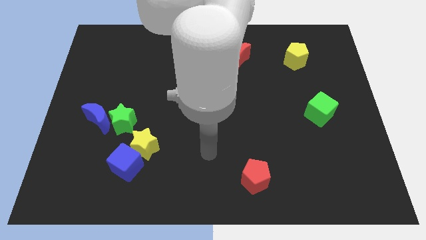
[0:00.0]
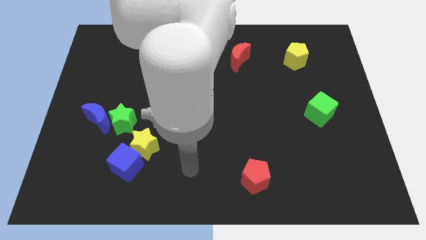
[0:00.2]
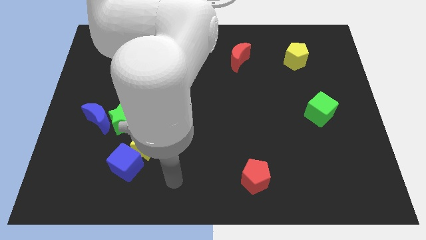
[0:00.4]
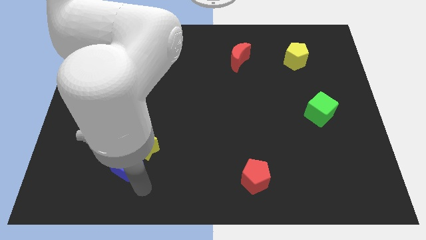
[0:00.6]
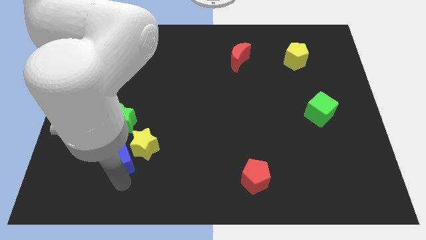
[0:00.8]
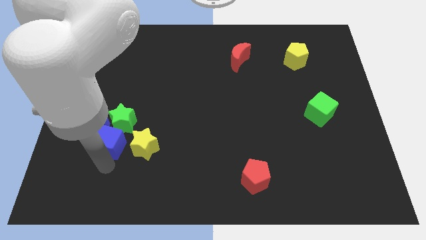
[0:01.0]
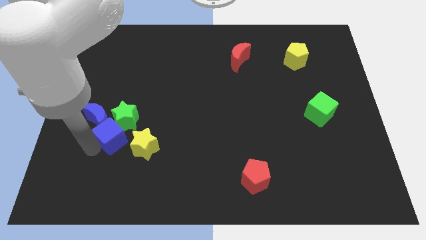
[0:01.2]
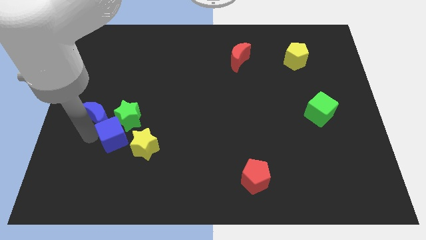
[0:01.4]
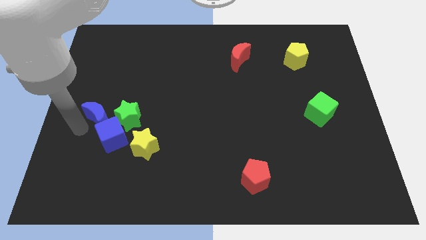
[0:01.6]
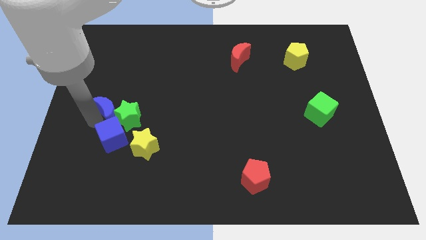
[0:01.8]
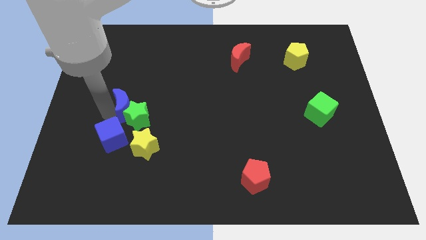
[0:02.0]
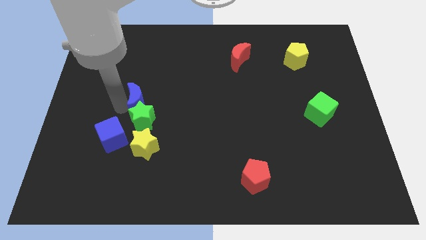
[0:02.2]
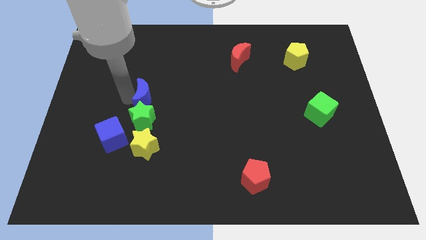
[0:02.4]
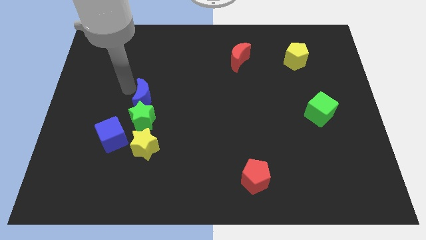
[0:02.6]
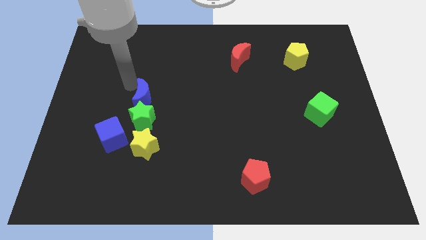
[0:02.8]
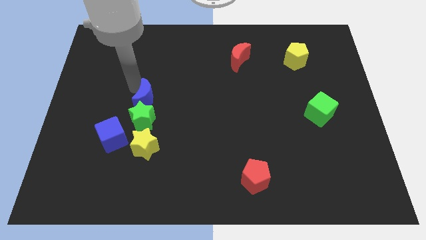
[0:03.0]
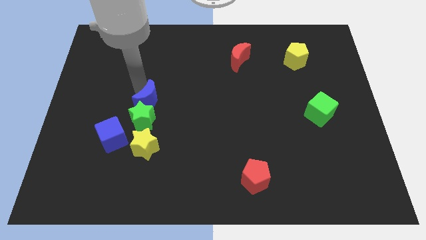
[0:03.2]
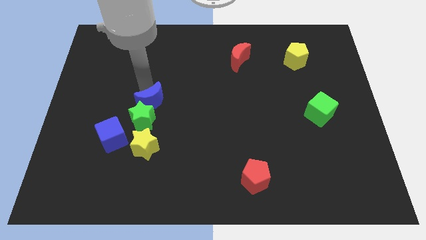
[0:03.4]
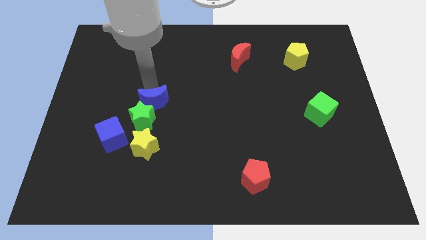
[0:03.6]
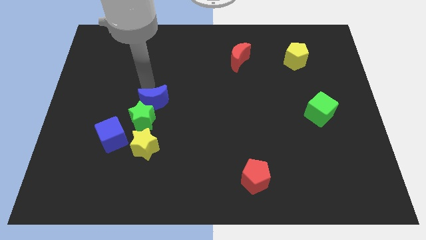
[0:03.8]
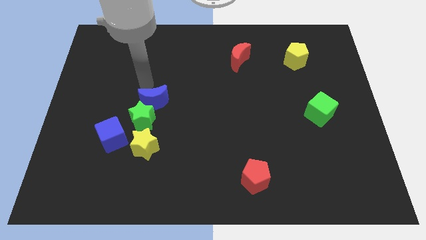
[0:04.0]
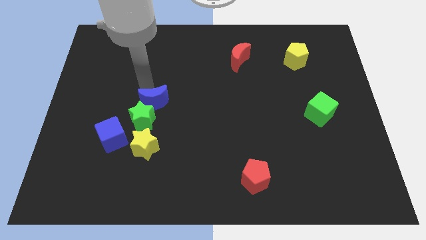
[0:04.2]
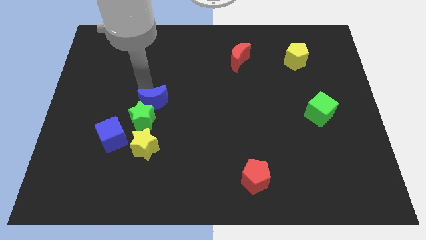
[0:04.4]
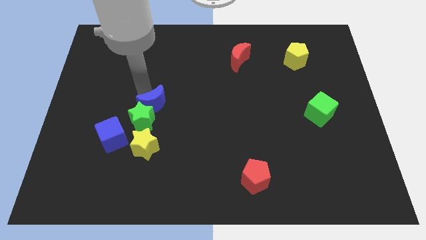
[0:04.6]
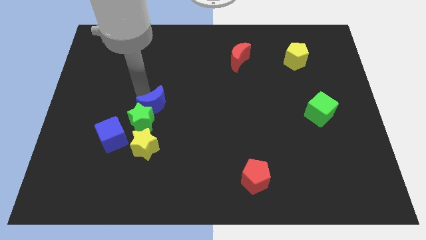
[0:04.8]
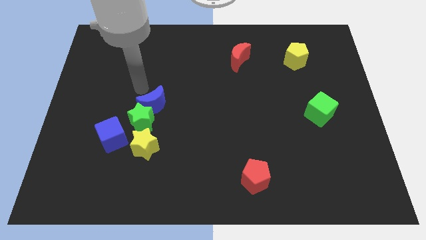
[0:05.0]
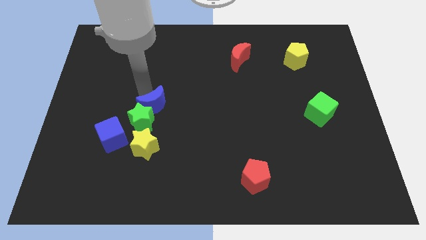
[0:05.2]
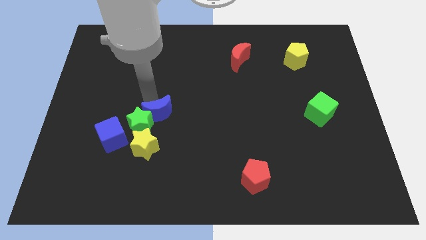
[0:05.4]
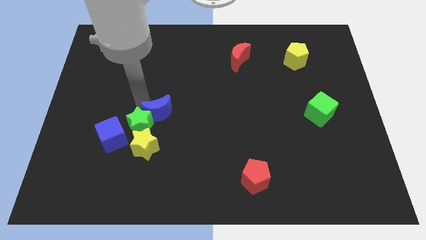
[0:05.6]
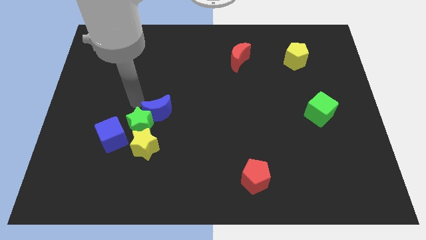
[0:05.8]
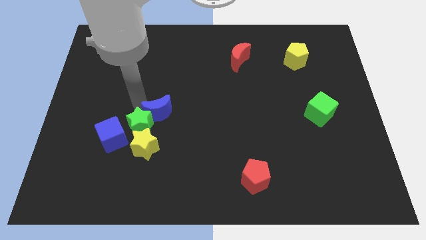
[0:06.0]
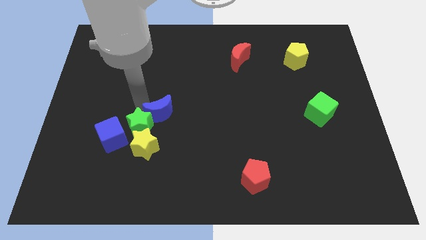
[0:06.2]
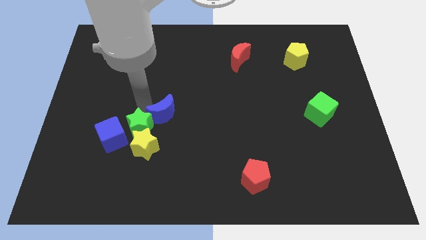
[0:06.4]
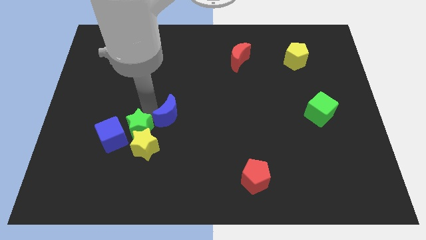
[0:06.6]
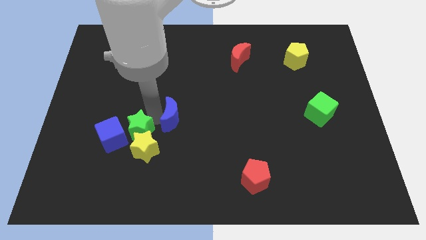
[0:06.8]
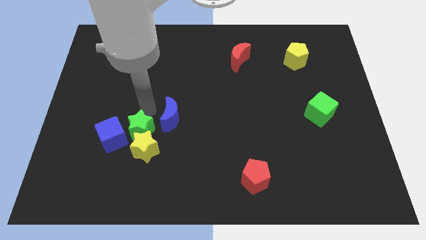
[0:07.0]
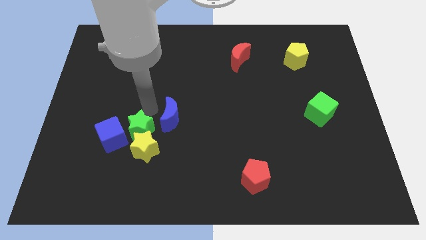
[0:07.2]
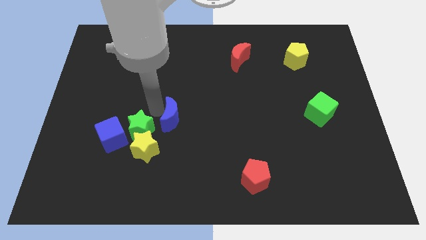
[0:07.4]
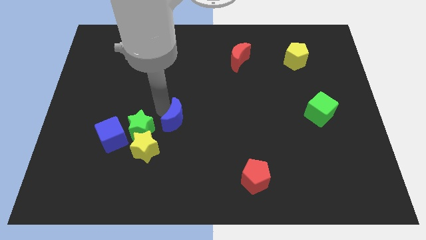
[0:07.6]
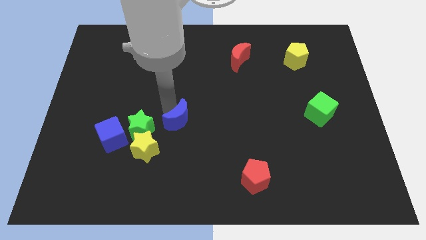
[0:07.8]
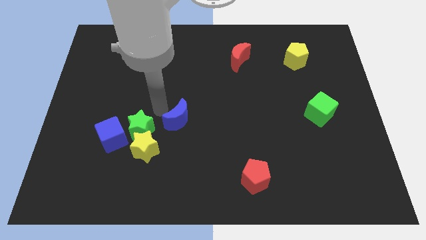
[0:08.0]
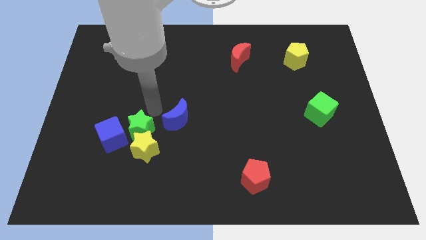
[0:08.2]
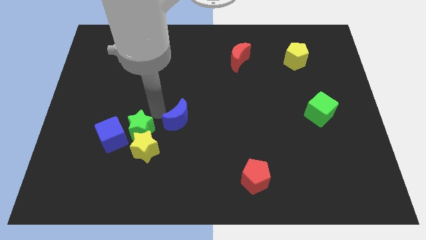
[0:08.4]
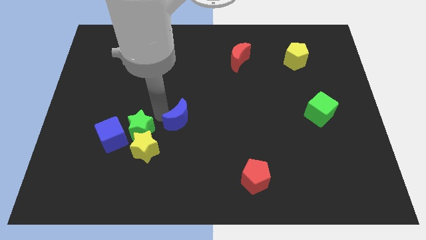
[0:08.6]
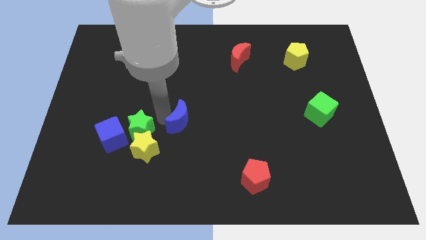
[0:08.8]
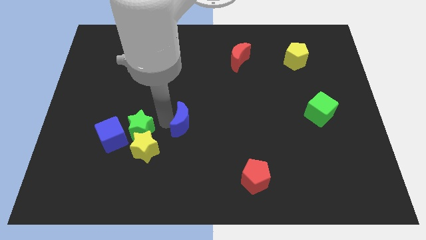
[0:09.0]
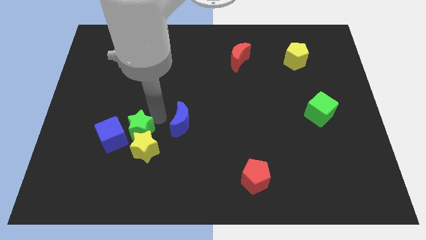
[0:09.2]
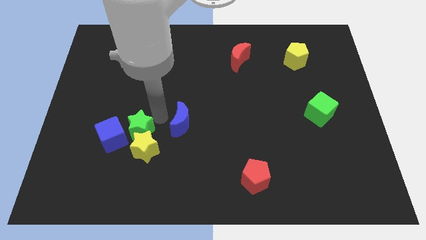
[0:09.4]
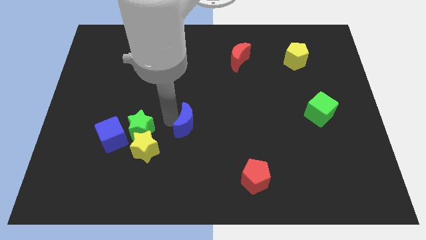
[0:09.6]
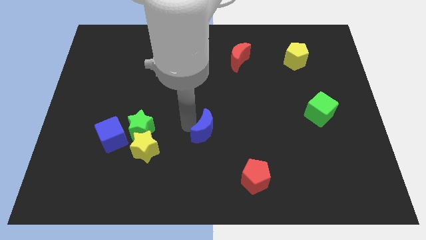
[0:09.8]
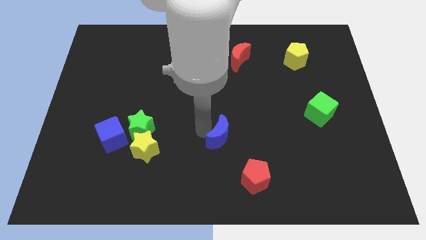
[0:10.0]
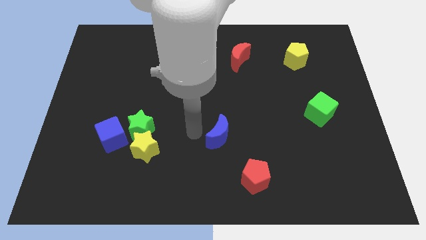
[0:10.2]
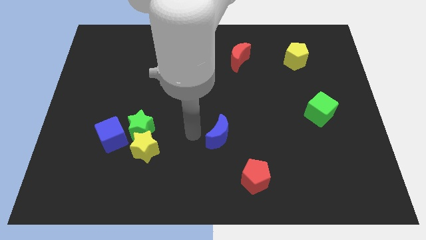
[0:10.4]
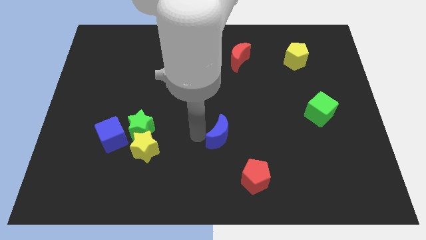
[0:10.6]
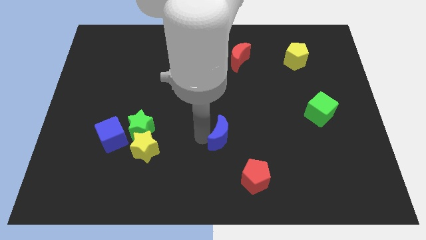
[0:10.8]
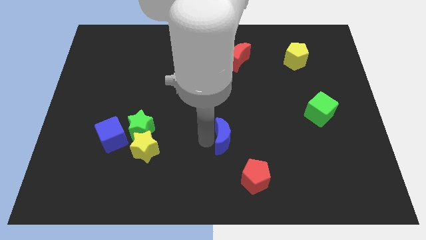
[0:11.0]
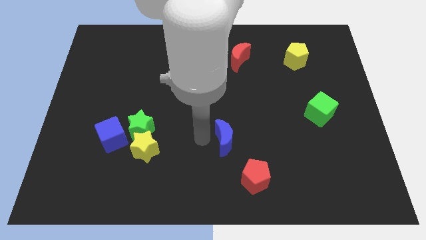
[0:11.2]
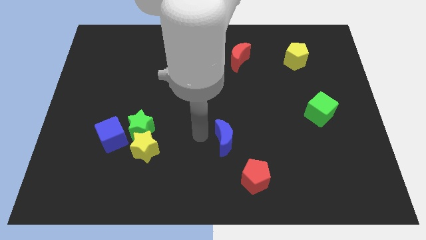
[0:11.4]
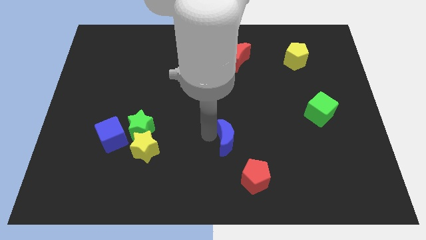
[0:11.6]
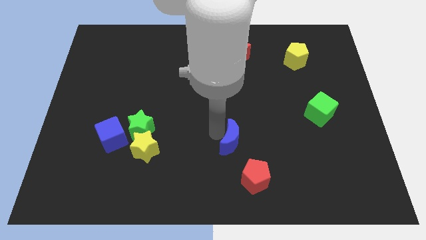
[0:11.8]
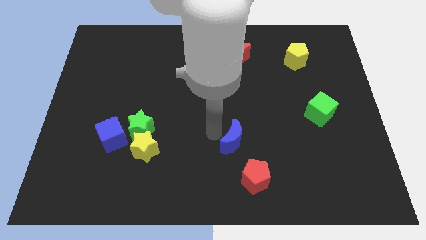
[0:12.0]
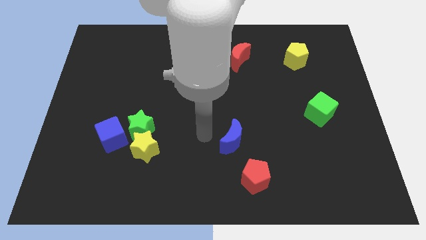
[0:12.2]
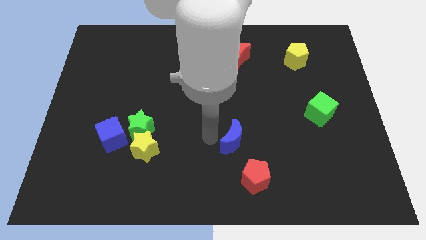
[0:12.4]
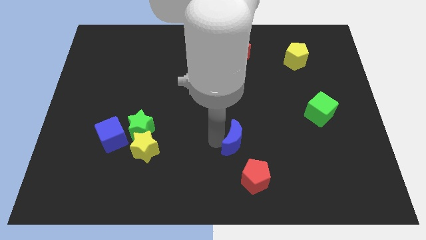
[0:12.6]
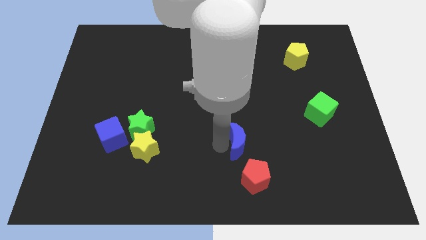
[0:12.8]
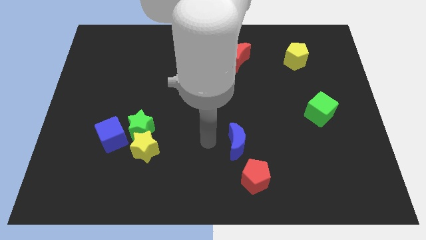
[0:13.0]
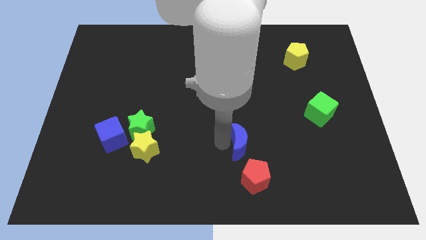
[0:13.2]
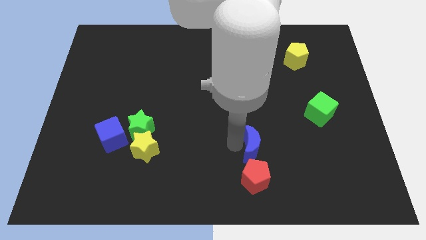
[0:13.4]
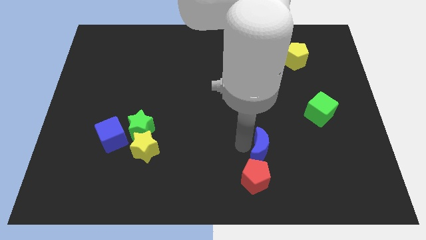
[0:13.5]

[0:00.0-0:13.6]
slide the blue moon diagonally up and to the right of the red pentagon
